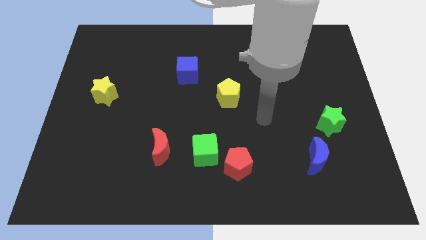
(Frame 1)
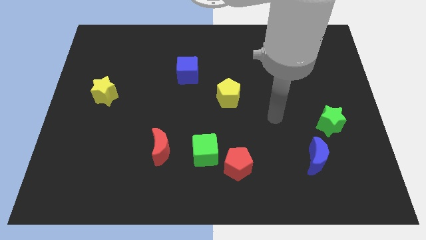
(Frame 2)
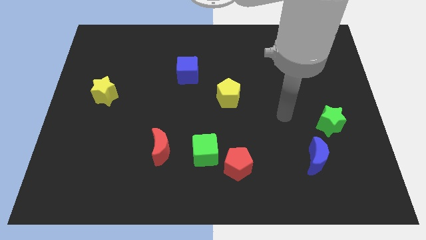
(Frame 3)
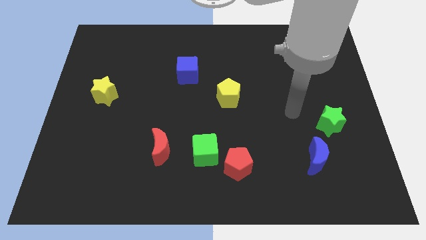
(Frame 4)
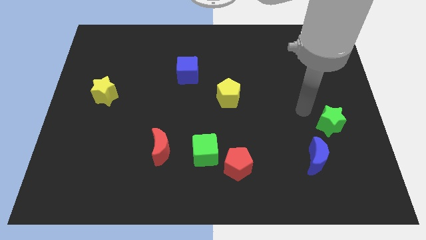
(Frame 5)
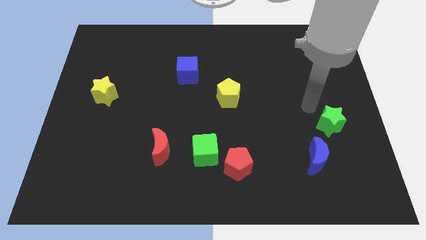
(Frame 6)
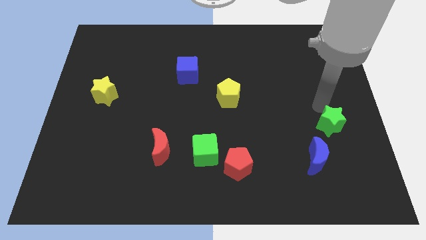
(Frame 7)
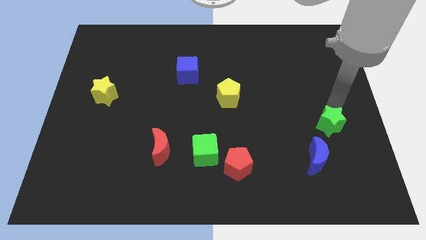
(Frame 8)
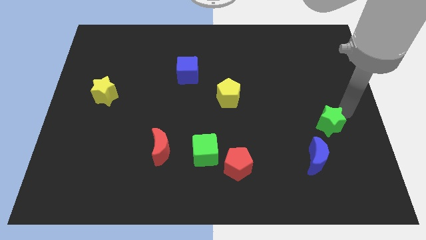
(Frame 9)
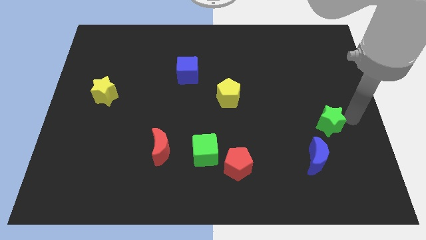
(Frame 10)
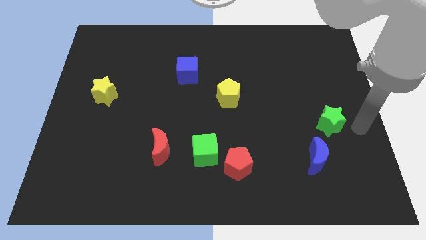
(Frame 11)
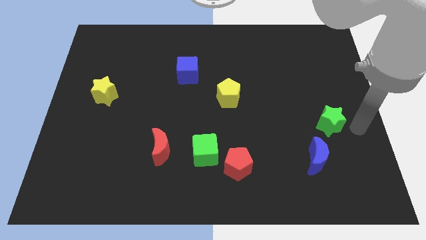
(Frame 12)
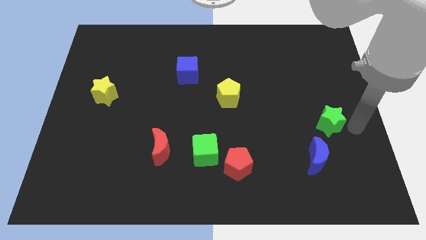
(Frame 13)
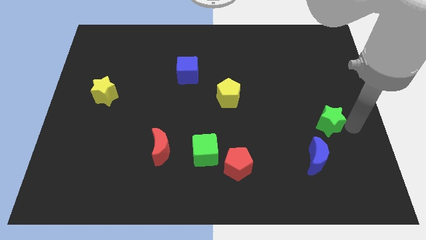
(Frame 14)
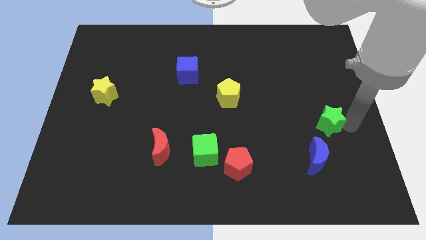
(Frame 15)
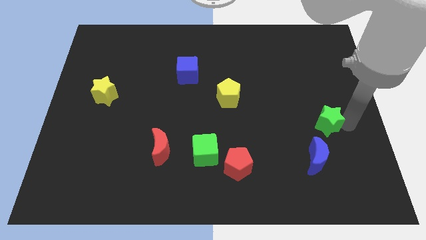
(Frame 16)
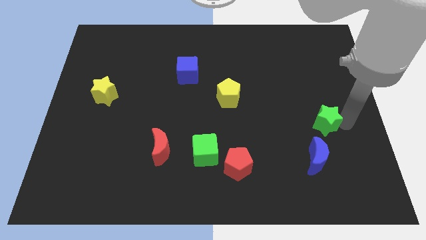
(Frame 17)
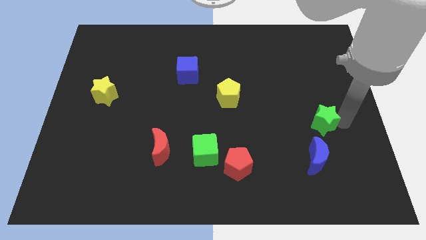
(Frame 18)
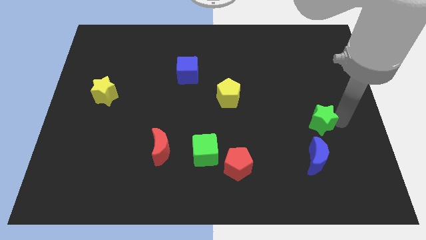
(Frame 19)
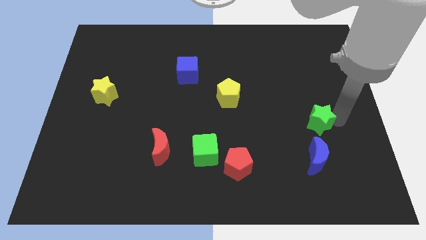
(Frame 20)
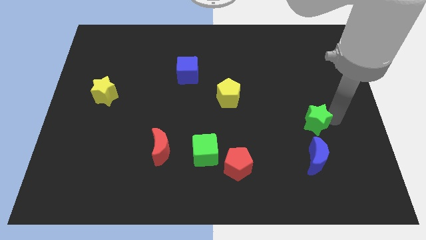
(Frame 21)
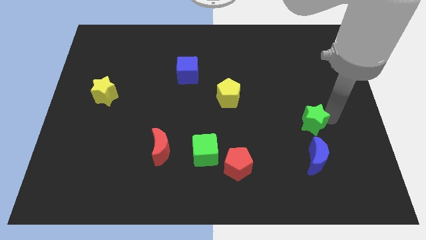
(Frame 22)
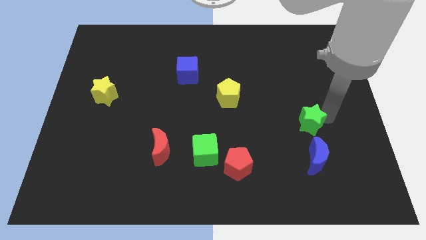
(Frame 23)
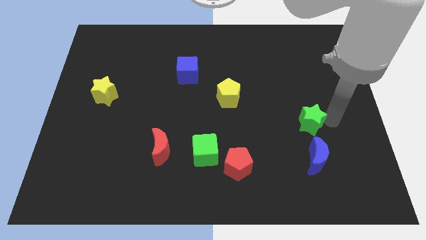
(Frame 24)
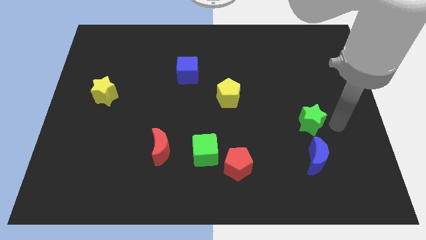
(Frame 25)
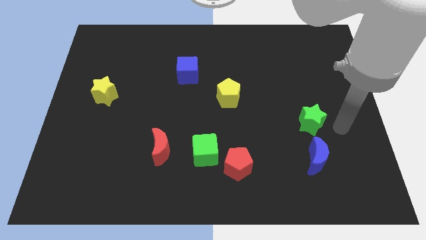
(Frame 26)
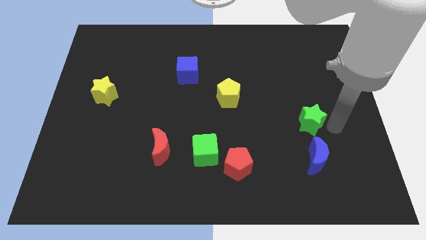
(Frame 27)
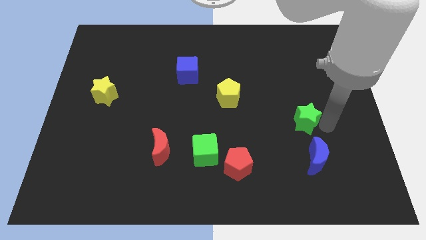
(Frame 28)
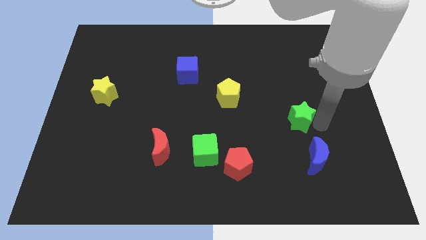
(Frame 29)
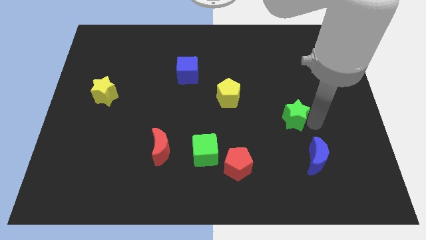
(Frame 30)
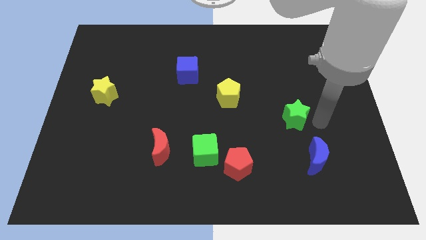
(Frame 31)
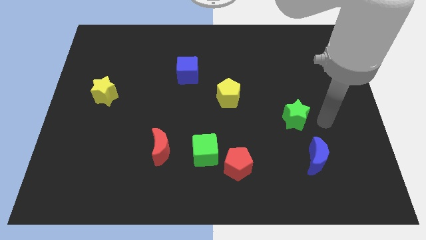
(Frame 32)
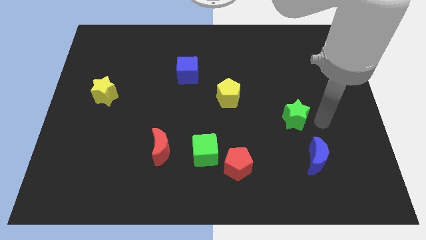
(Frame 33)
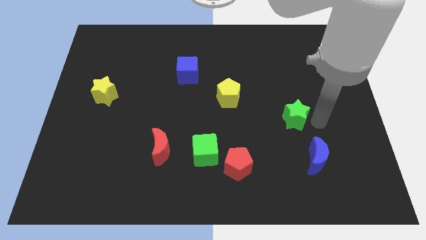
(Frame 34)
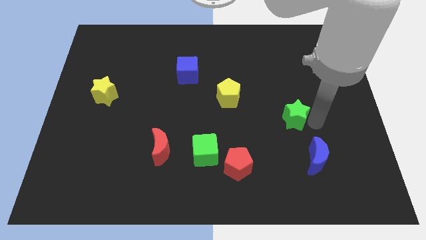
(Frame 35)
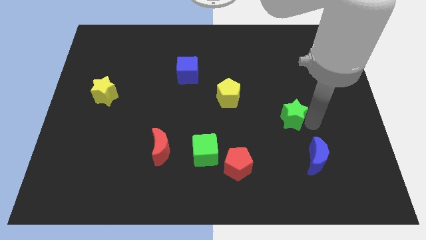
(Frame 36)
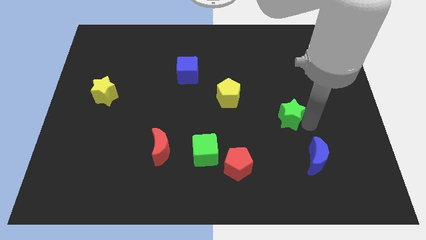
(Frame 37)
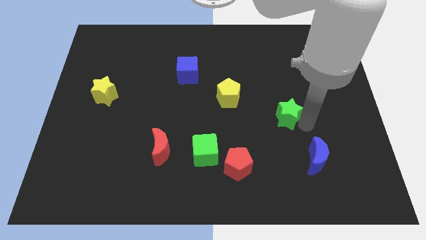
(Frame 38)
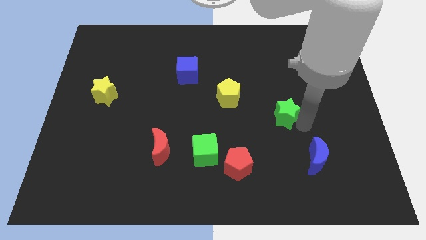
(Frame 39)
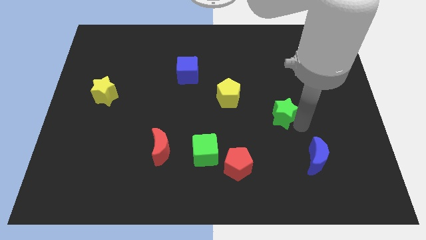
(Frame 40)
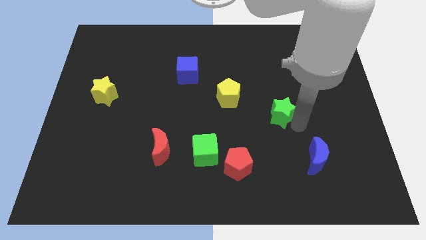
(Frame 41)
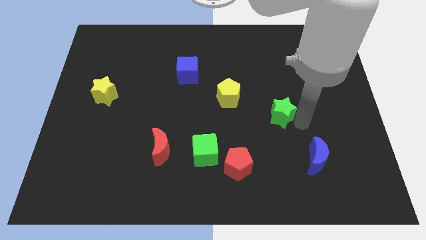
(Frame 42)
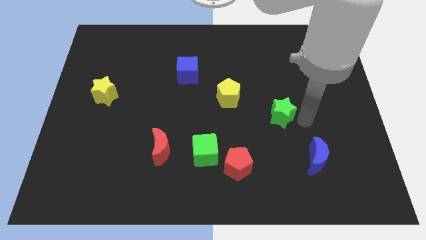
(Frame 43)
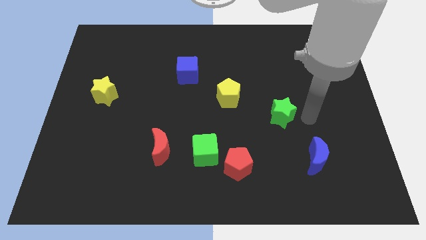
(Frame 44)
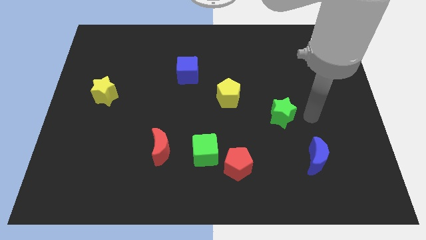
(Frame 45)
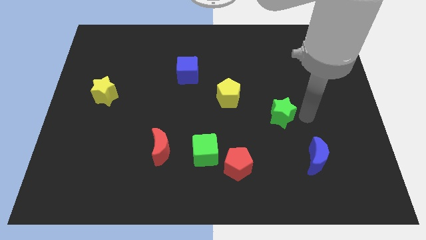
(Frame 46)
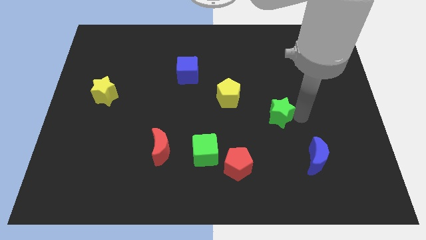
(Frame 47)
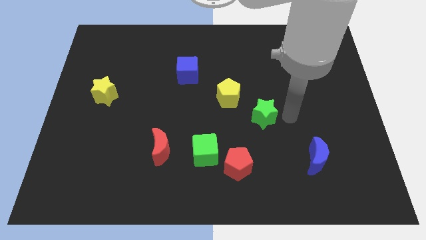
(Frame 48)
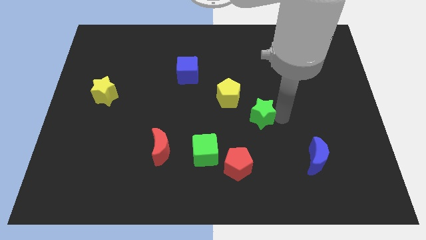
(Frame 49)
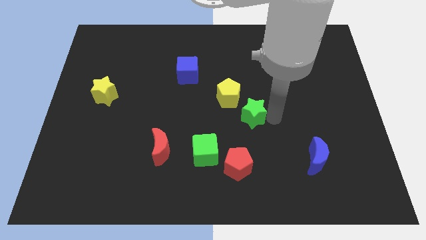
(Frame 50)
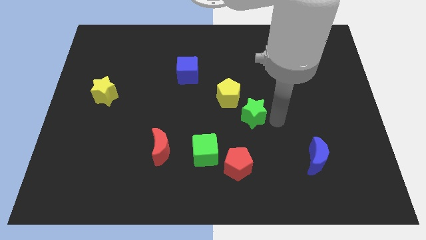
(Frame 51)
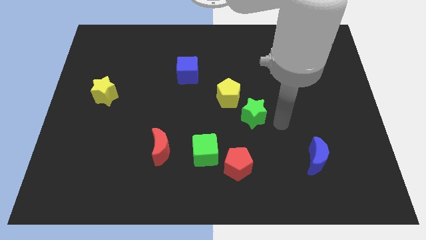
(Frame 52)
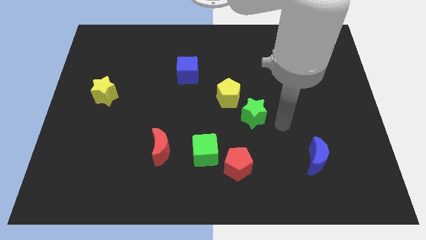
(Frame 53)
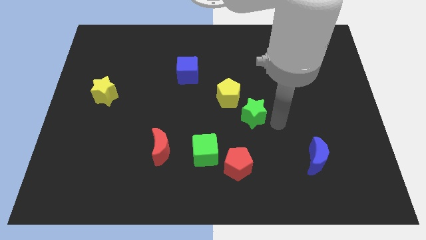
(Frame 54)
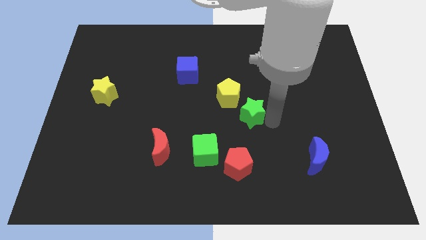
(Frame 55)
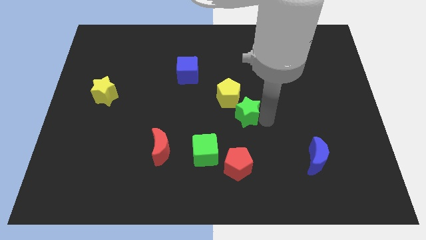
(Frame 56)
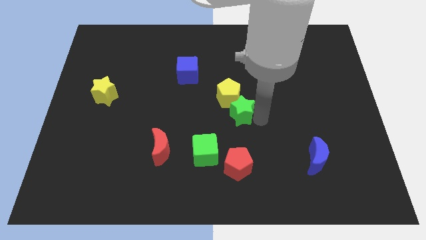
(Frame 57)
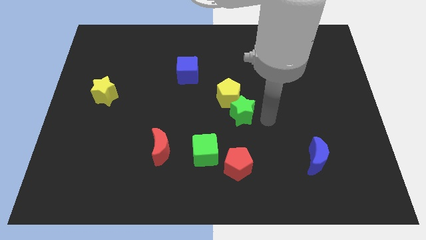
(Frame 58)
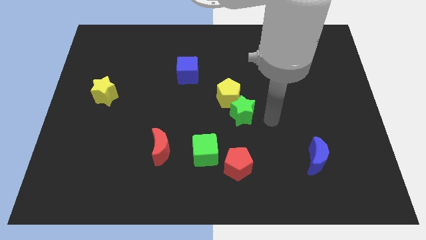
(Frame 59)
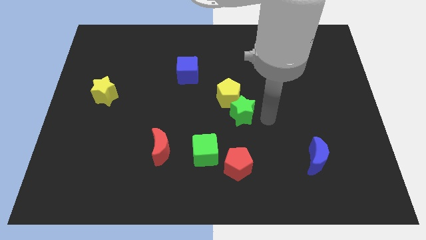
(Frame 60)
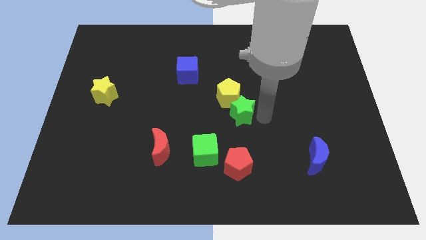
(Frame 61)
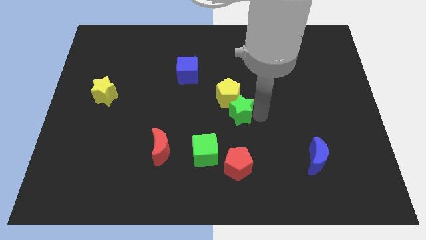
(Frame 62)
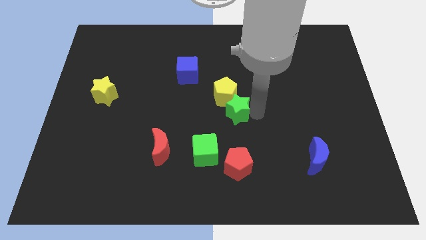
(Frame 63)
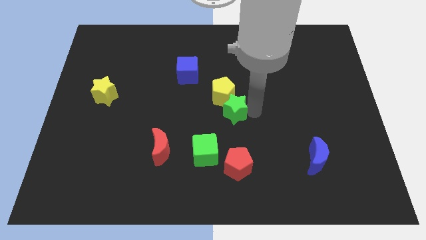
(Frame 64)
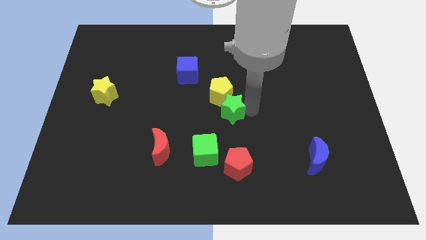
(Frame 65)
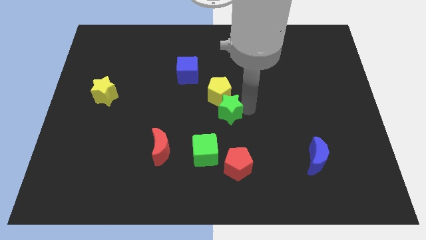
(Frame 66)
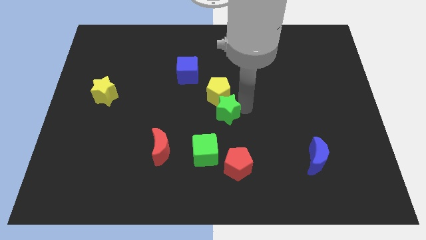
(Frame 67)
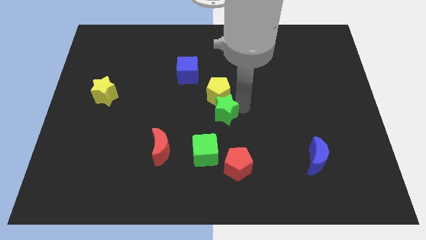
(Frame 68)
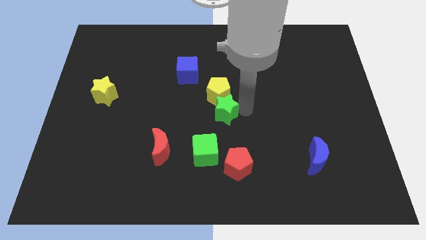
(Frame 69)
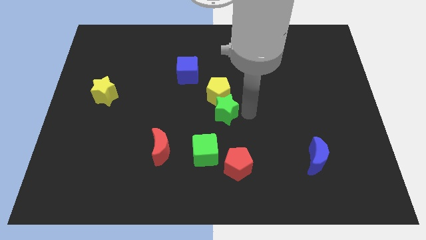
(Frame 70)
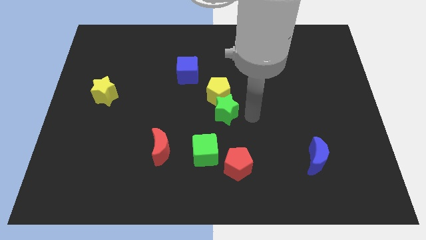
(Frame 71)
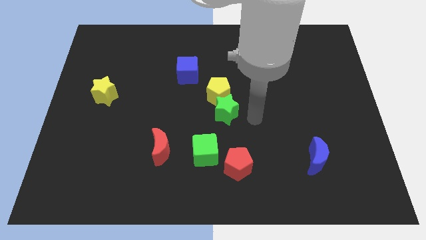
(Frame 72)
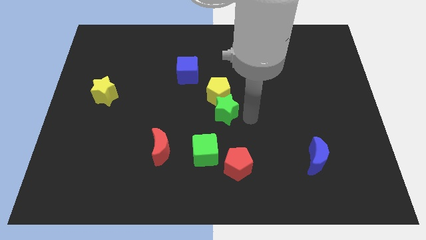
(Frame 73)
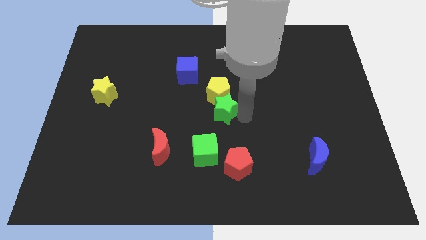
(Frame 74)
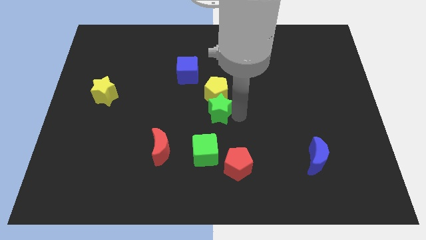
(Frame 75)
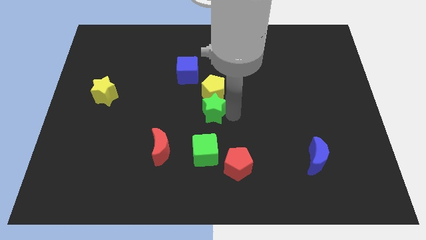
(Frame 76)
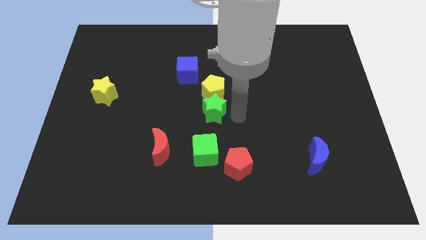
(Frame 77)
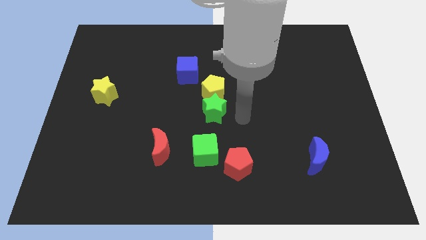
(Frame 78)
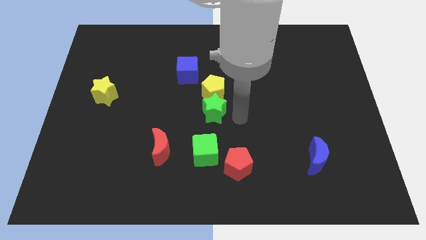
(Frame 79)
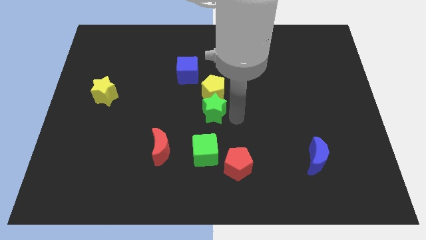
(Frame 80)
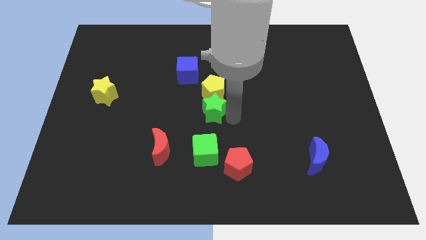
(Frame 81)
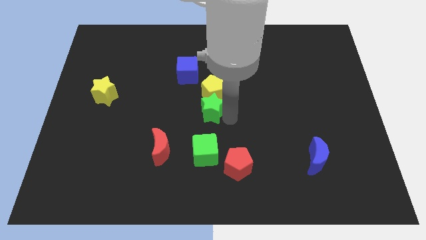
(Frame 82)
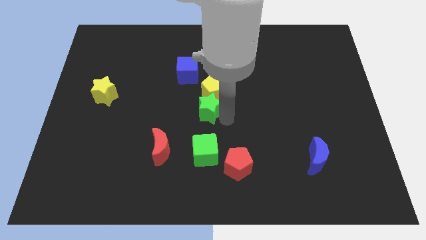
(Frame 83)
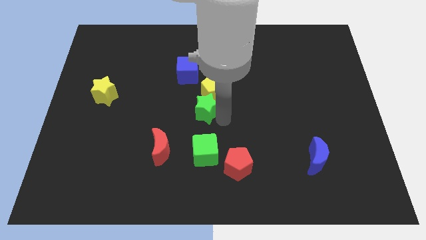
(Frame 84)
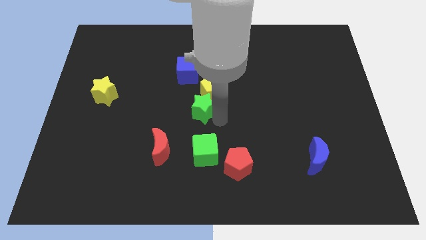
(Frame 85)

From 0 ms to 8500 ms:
slide the green star below the blue cube
